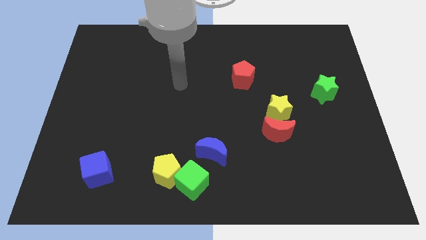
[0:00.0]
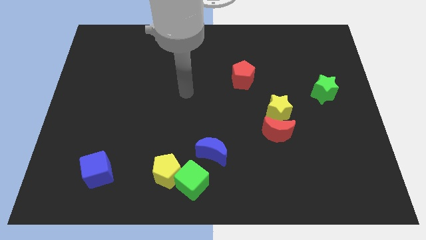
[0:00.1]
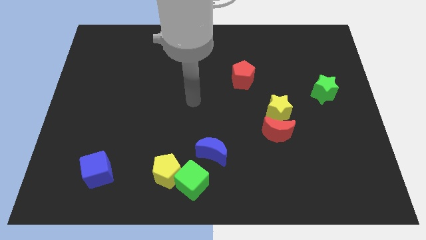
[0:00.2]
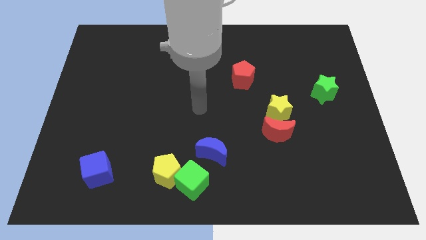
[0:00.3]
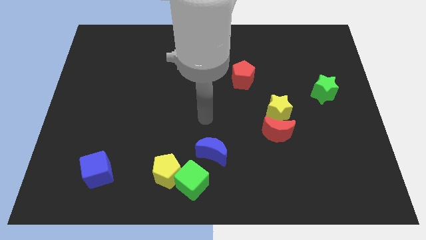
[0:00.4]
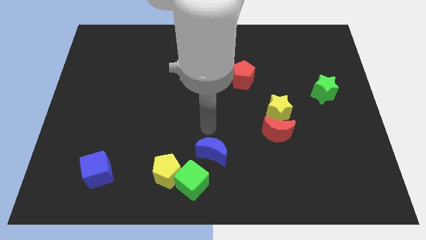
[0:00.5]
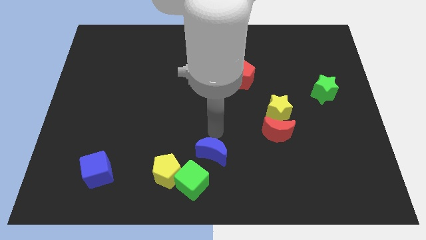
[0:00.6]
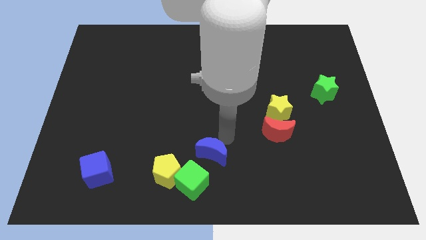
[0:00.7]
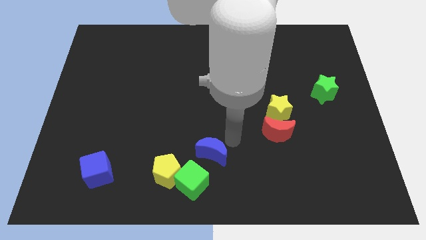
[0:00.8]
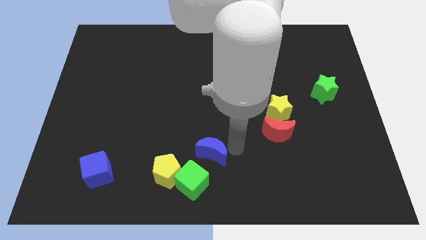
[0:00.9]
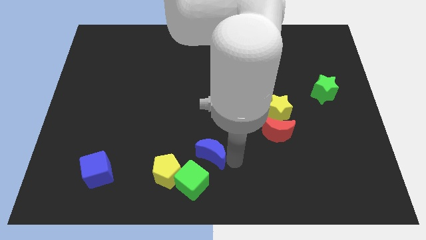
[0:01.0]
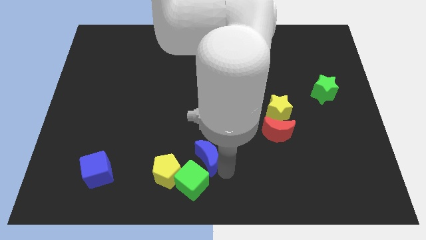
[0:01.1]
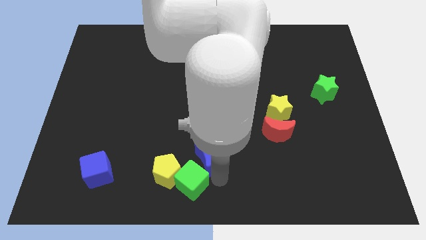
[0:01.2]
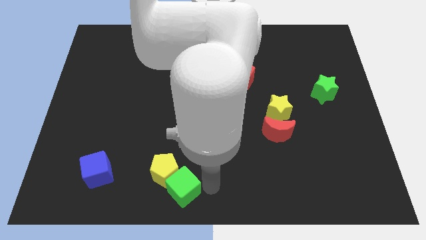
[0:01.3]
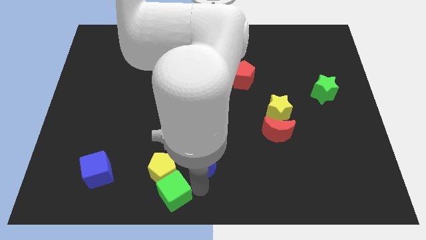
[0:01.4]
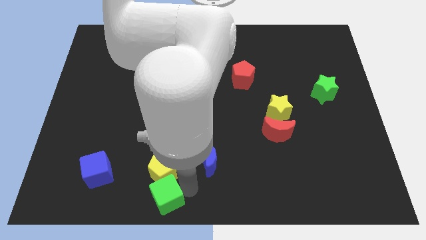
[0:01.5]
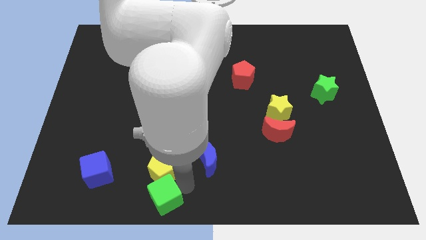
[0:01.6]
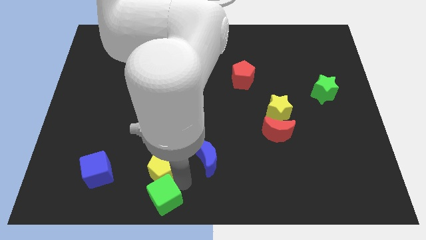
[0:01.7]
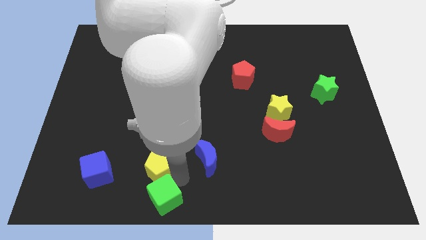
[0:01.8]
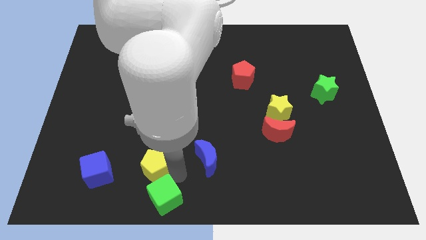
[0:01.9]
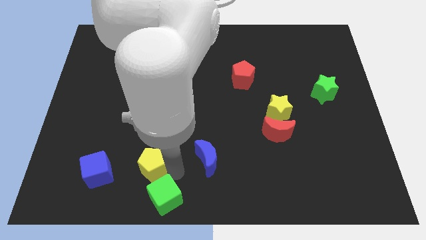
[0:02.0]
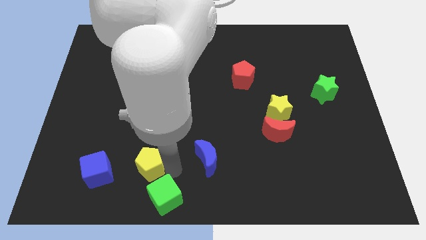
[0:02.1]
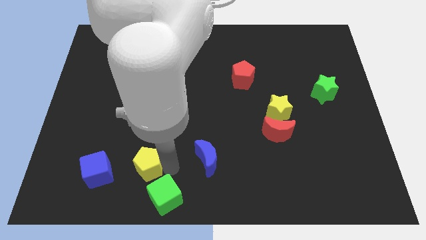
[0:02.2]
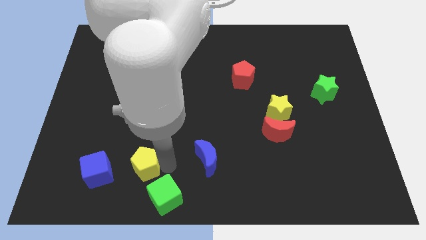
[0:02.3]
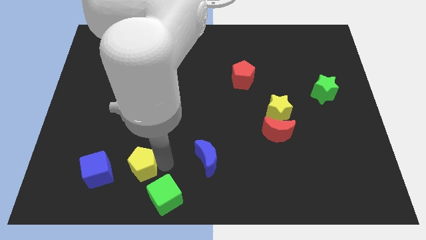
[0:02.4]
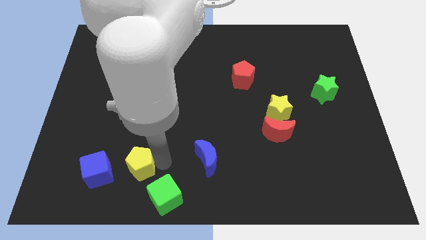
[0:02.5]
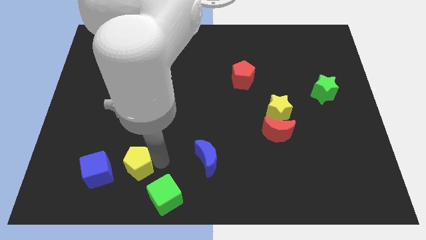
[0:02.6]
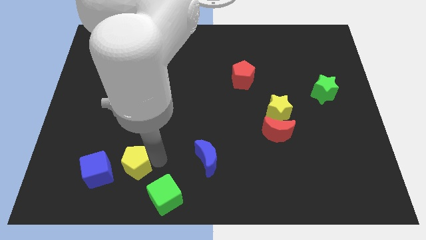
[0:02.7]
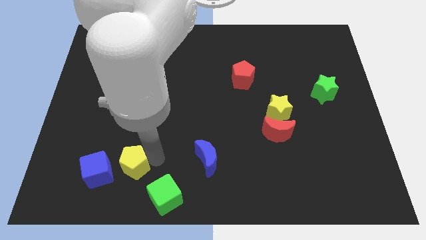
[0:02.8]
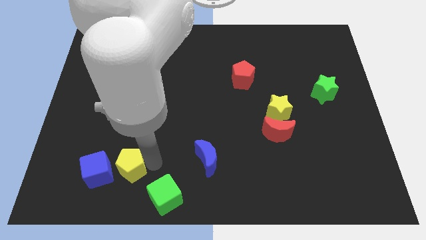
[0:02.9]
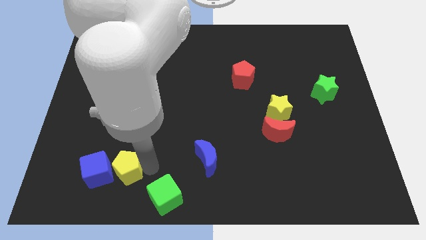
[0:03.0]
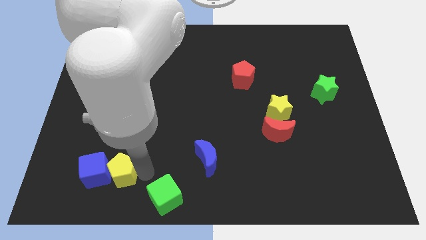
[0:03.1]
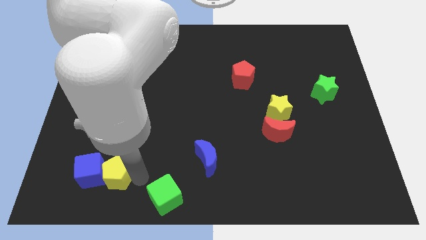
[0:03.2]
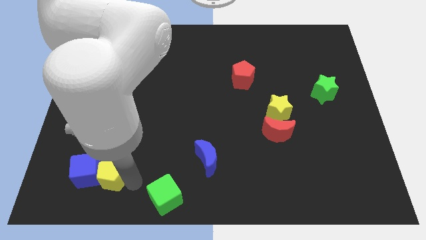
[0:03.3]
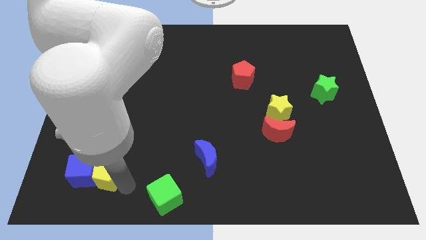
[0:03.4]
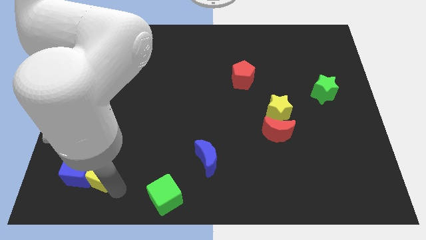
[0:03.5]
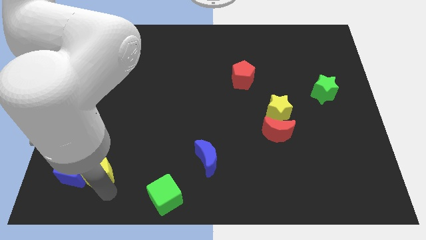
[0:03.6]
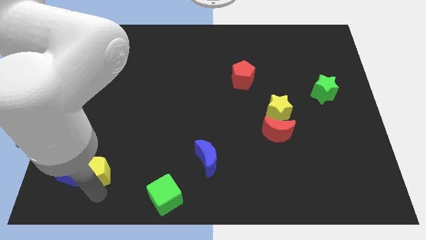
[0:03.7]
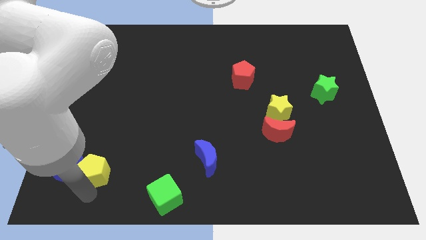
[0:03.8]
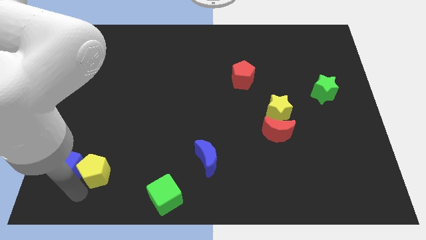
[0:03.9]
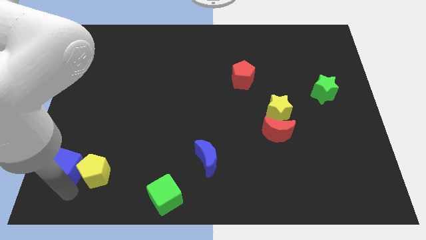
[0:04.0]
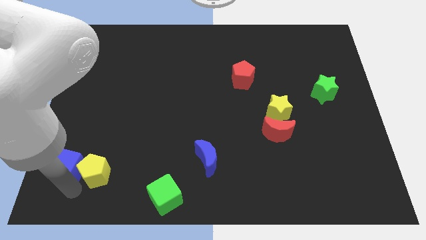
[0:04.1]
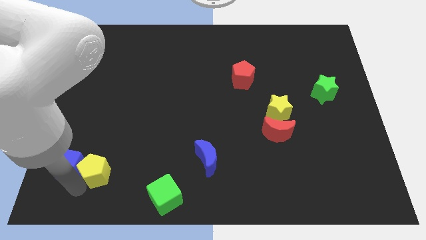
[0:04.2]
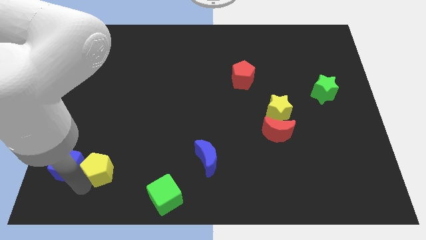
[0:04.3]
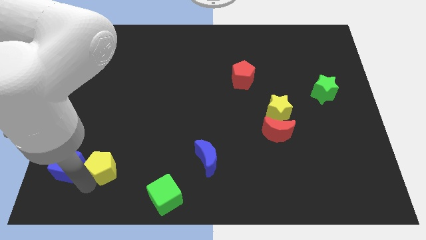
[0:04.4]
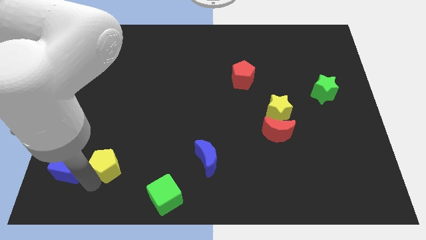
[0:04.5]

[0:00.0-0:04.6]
move the yellow pentagon a little diagonally upwards and to the left

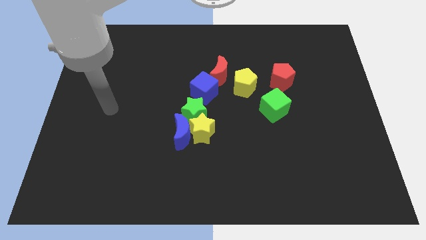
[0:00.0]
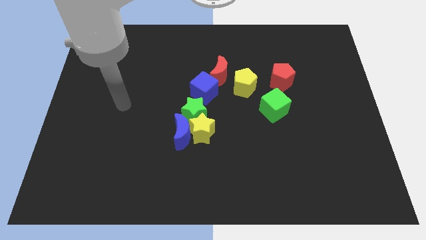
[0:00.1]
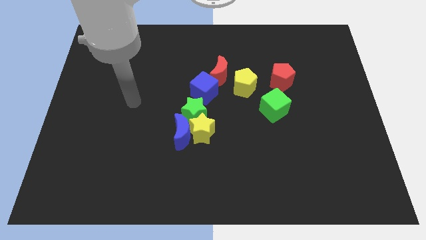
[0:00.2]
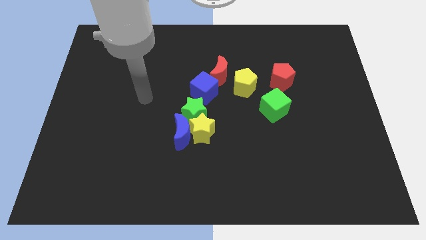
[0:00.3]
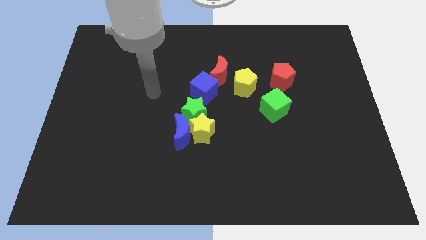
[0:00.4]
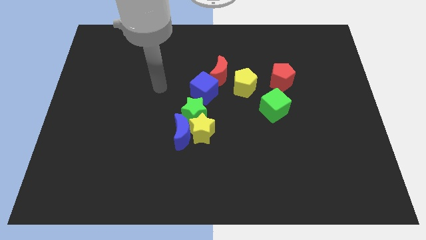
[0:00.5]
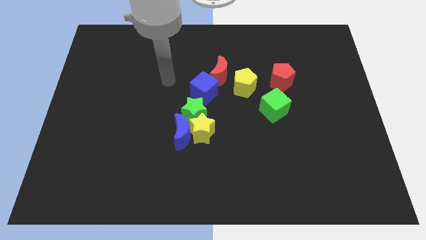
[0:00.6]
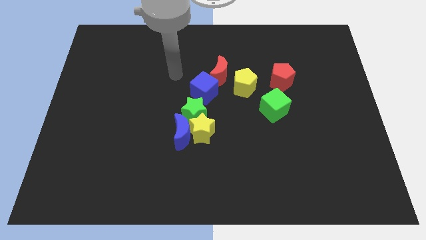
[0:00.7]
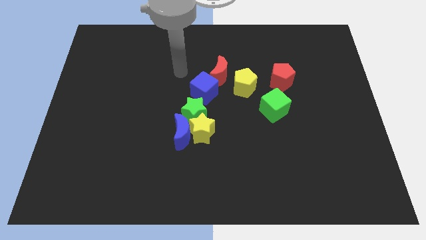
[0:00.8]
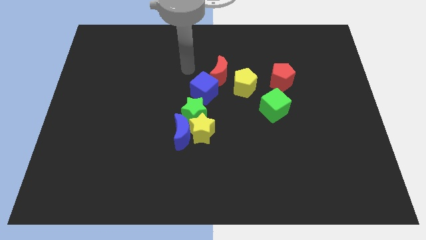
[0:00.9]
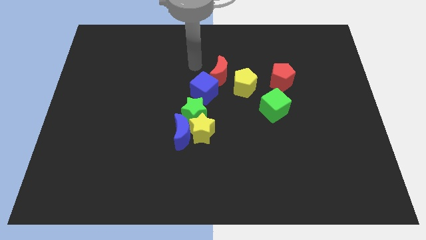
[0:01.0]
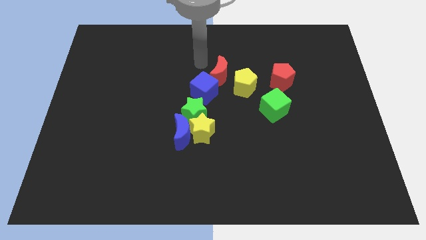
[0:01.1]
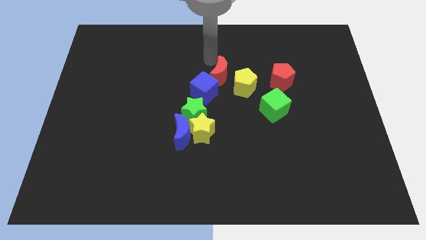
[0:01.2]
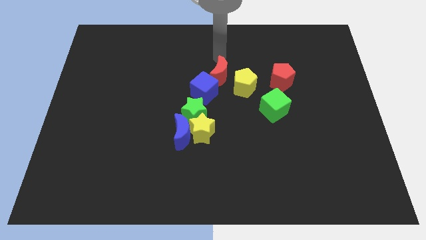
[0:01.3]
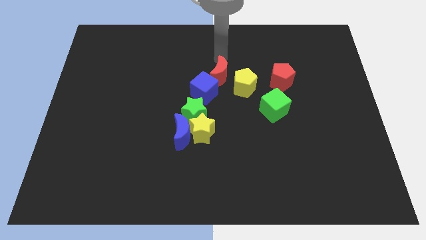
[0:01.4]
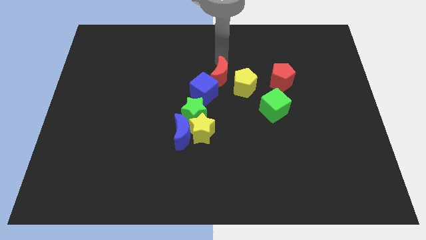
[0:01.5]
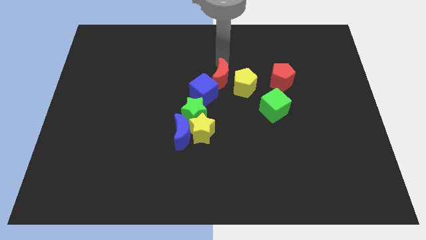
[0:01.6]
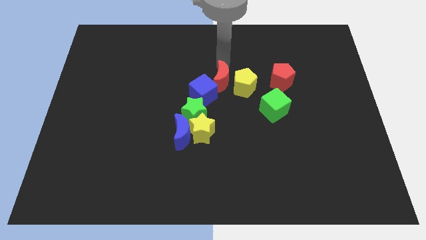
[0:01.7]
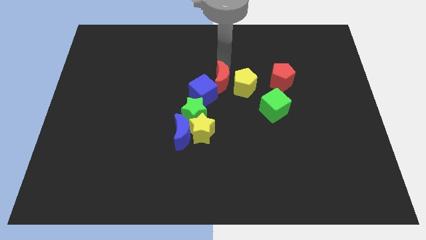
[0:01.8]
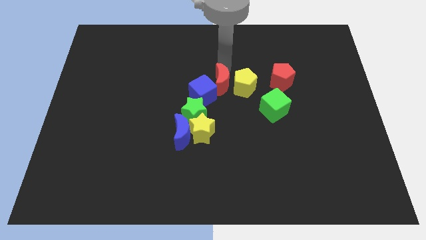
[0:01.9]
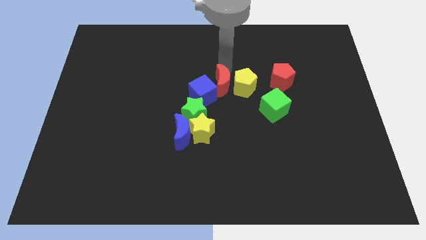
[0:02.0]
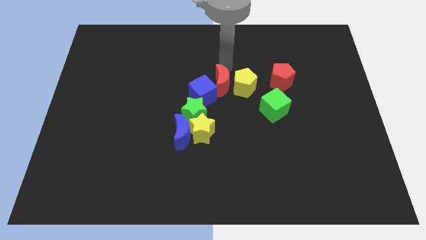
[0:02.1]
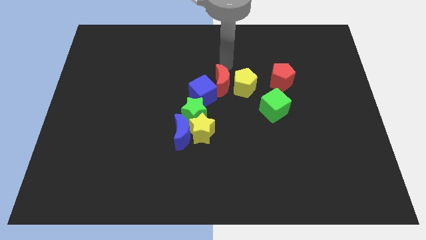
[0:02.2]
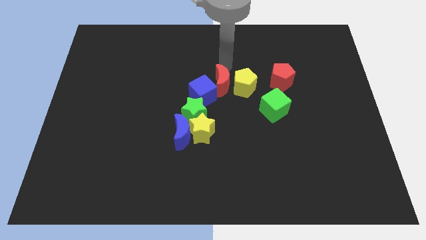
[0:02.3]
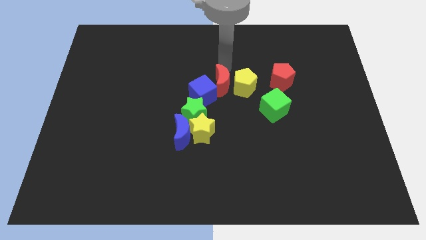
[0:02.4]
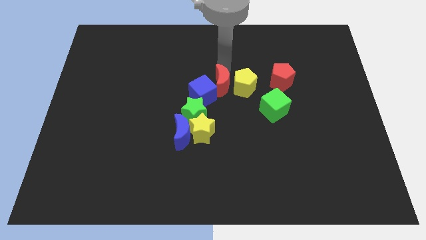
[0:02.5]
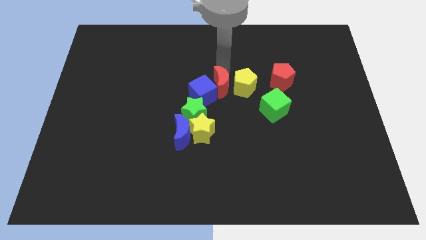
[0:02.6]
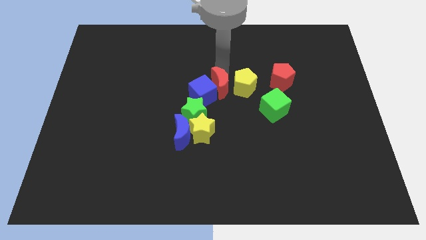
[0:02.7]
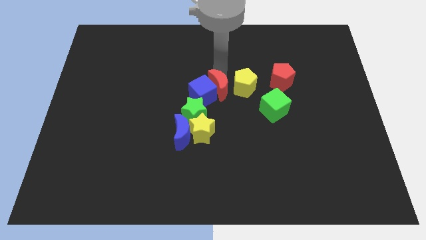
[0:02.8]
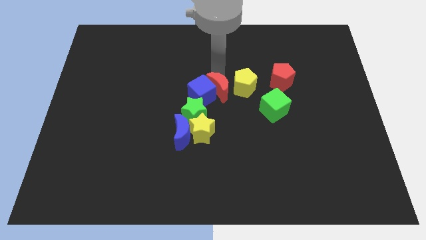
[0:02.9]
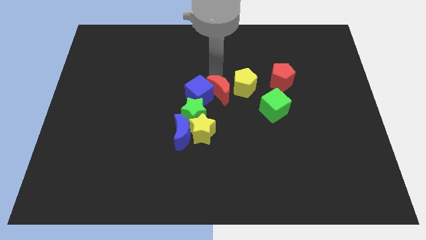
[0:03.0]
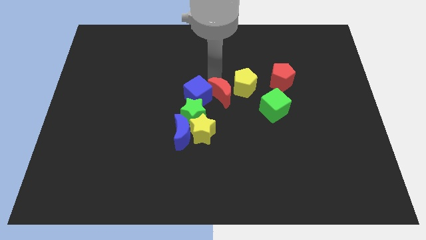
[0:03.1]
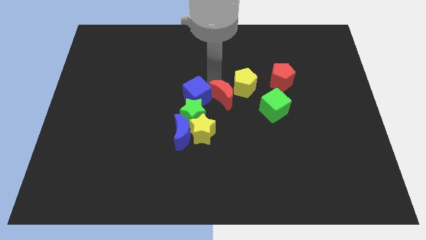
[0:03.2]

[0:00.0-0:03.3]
push the red moon a bit downwards

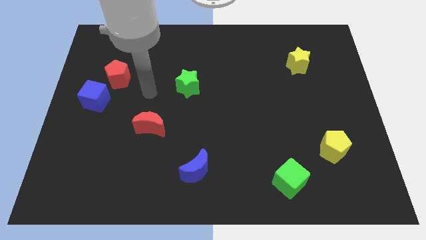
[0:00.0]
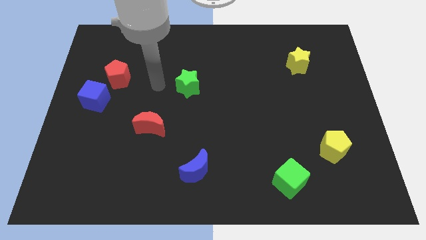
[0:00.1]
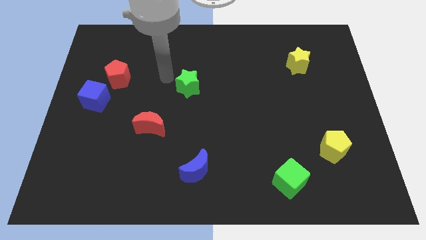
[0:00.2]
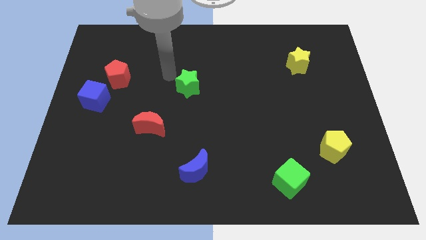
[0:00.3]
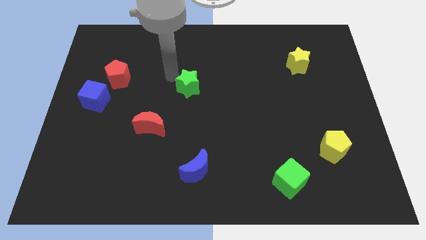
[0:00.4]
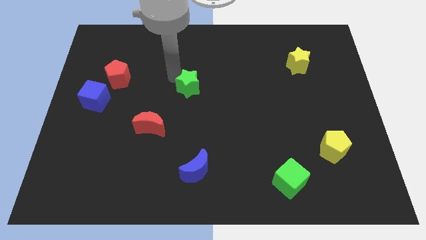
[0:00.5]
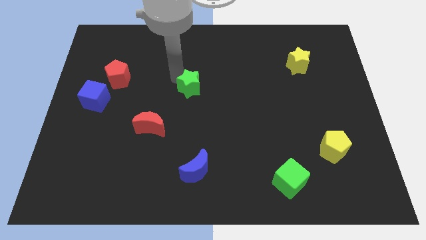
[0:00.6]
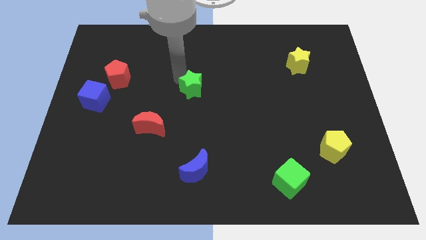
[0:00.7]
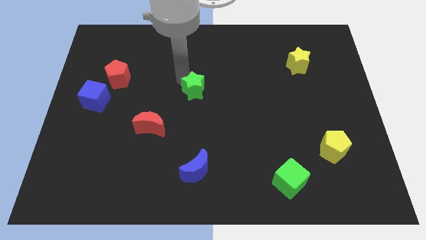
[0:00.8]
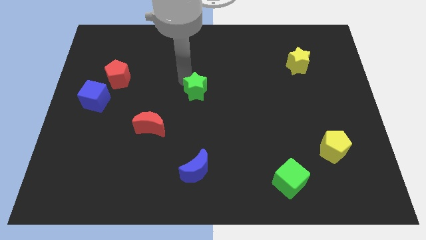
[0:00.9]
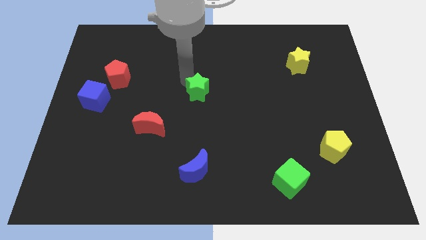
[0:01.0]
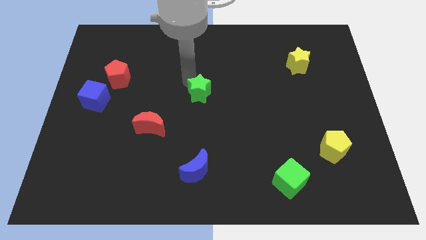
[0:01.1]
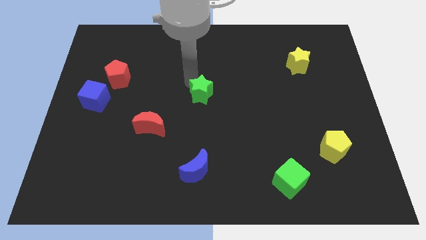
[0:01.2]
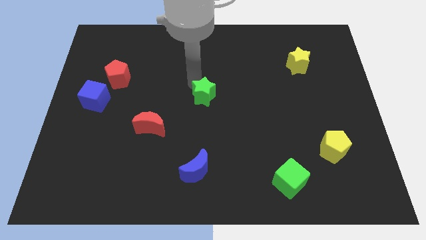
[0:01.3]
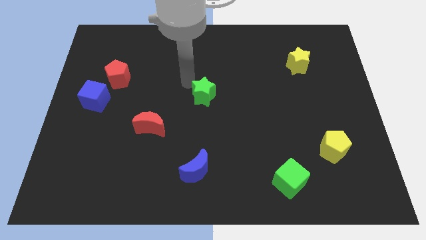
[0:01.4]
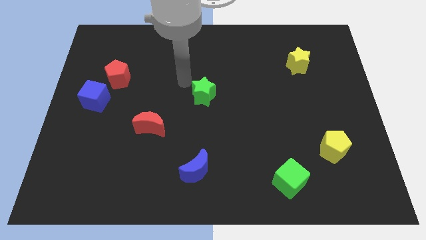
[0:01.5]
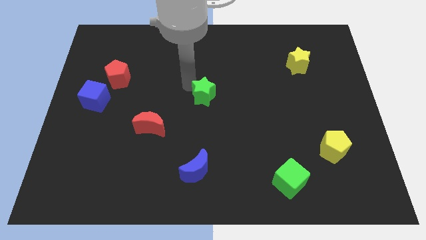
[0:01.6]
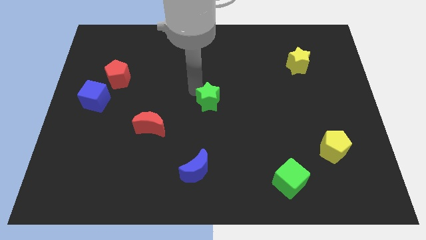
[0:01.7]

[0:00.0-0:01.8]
push the green star a little diagonally downwards and right
